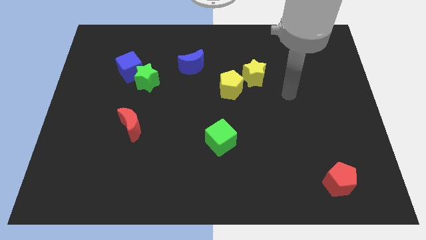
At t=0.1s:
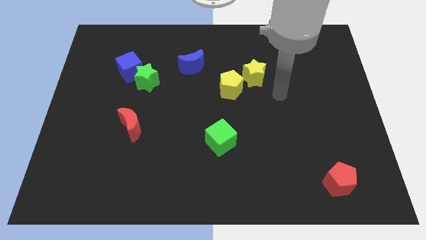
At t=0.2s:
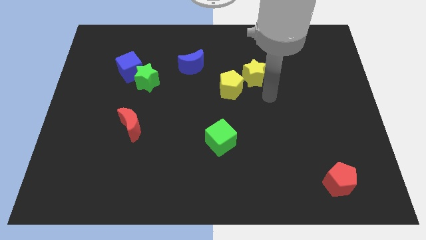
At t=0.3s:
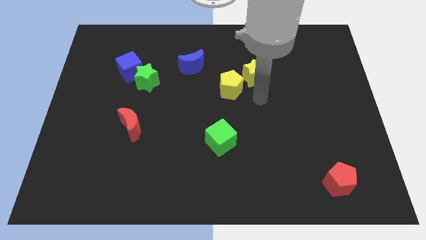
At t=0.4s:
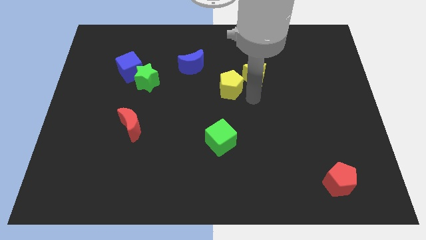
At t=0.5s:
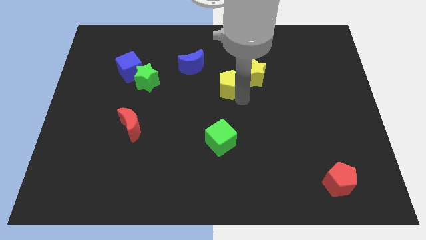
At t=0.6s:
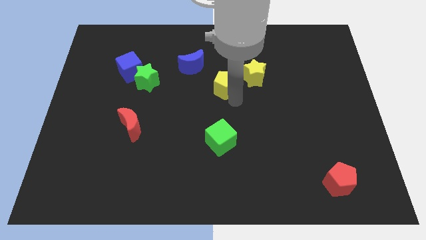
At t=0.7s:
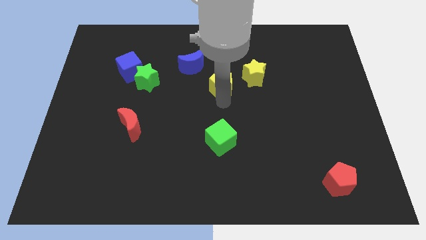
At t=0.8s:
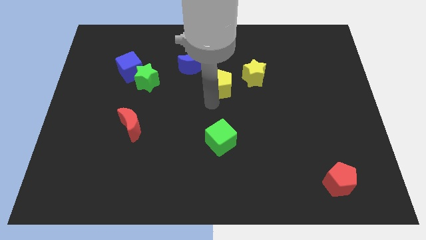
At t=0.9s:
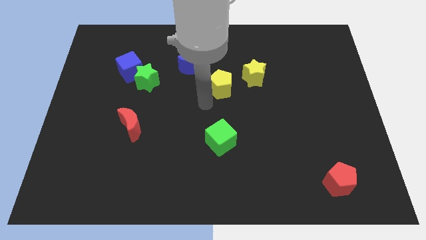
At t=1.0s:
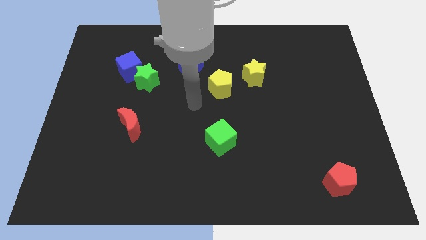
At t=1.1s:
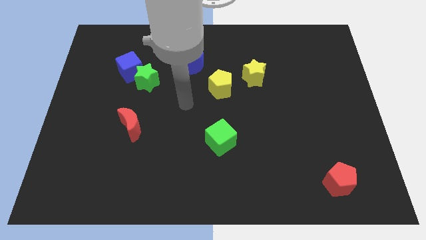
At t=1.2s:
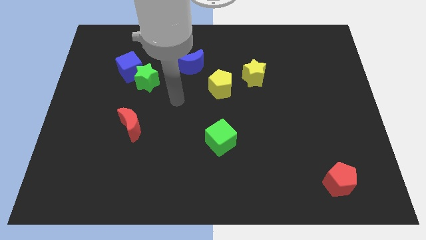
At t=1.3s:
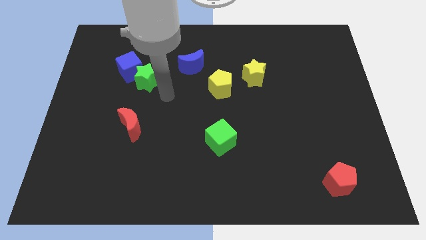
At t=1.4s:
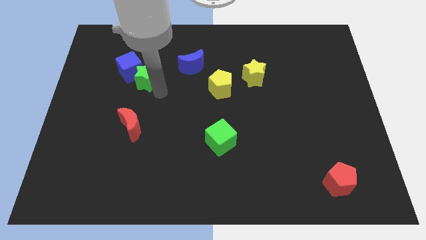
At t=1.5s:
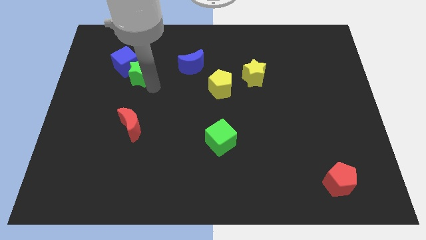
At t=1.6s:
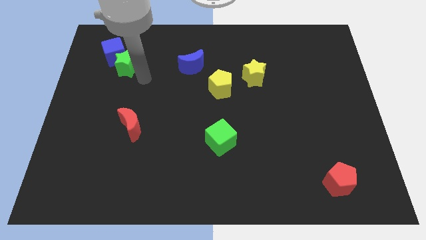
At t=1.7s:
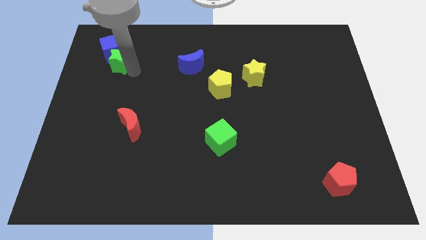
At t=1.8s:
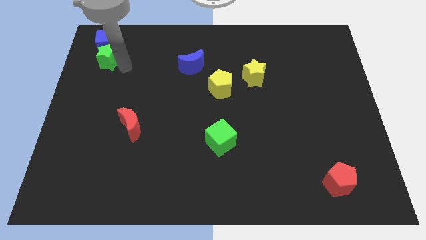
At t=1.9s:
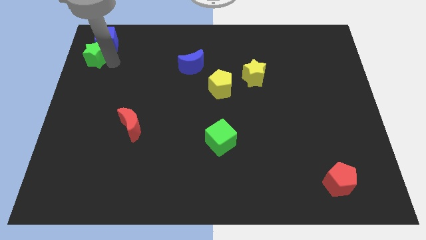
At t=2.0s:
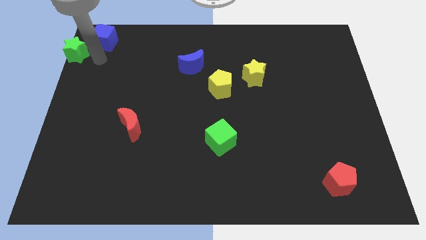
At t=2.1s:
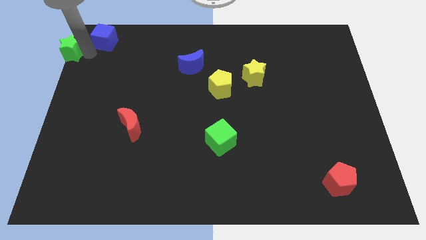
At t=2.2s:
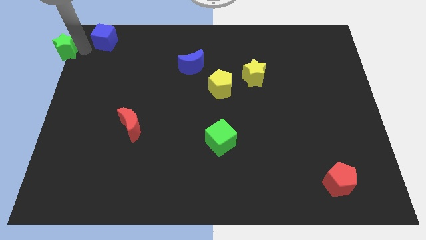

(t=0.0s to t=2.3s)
pull the blue cube apart from the green star

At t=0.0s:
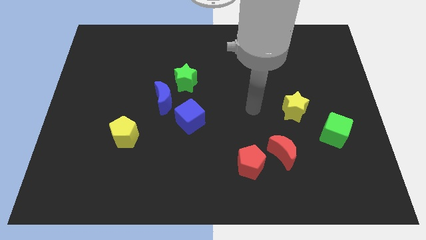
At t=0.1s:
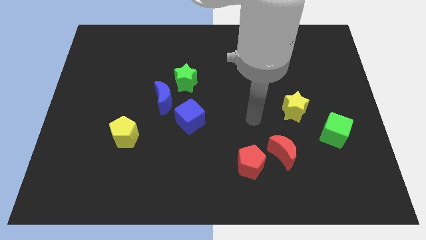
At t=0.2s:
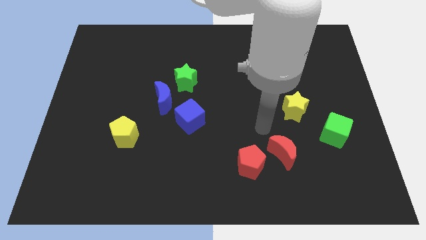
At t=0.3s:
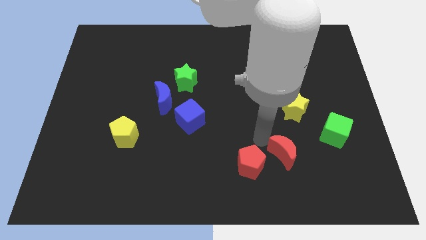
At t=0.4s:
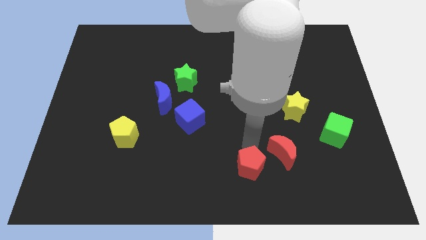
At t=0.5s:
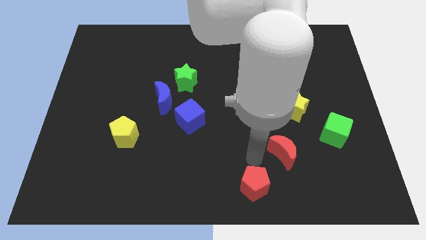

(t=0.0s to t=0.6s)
move the red moon away from the red pentagon

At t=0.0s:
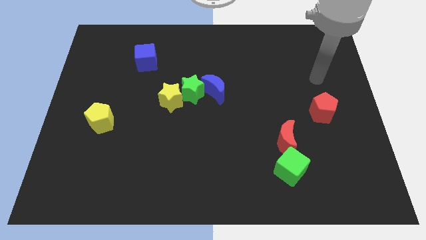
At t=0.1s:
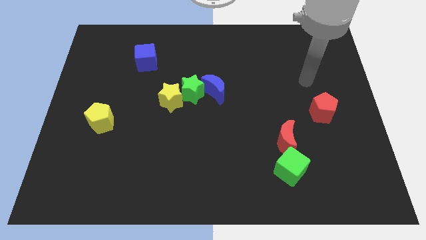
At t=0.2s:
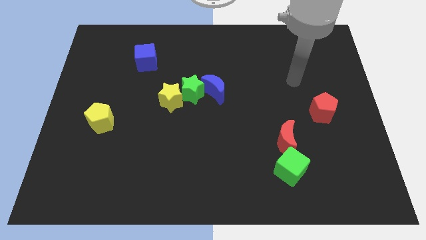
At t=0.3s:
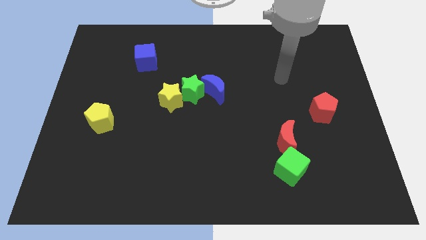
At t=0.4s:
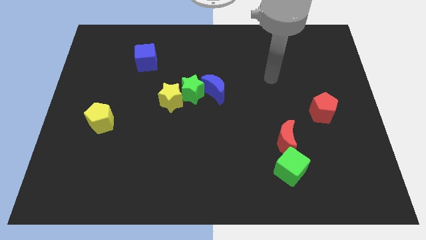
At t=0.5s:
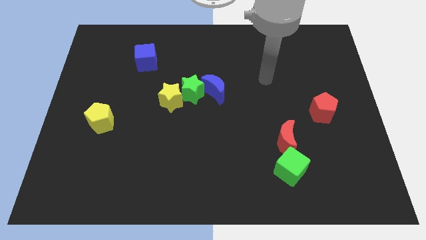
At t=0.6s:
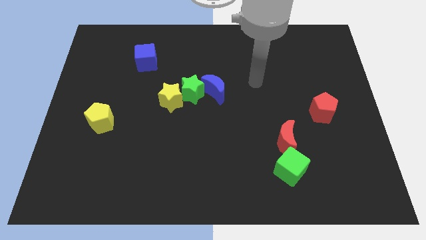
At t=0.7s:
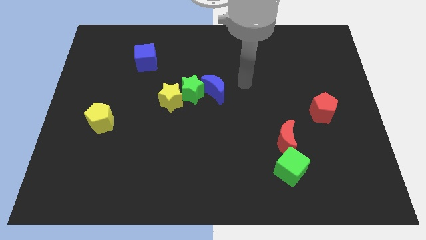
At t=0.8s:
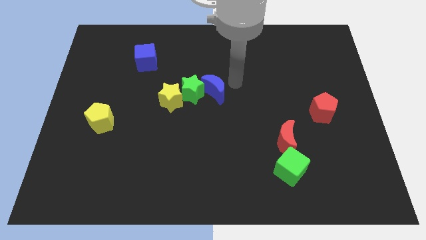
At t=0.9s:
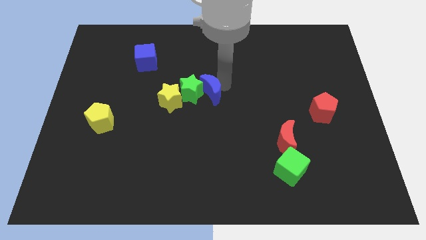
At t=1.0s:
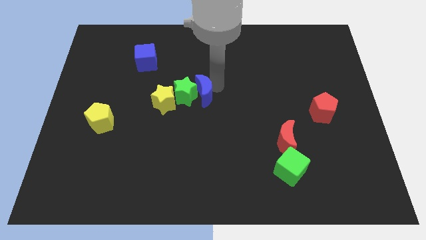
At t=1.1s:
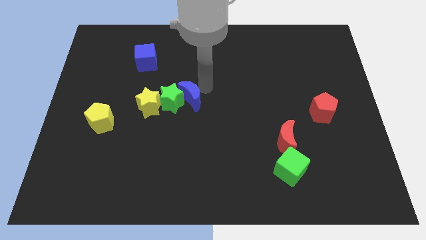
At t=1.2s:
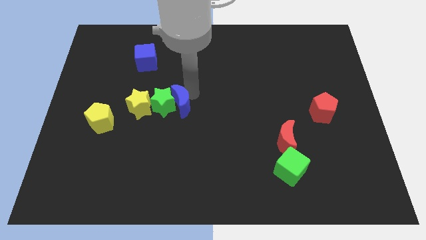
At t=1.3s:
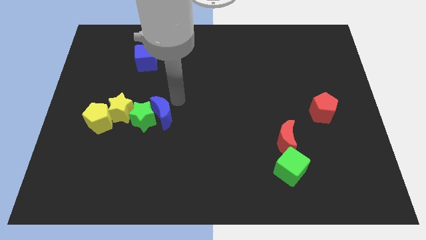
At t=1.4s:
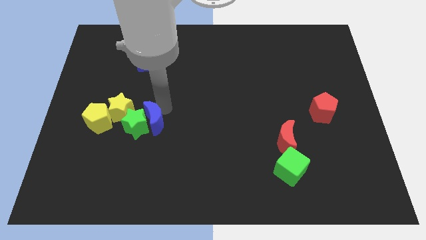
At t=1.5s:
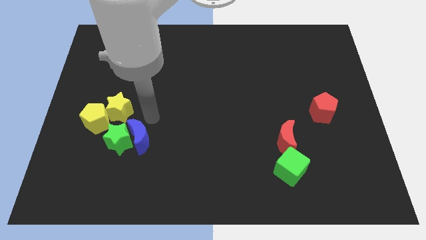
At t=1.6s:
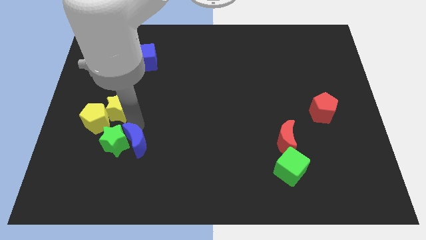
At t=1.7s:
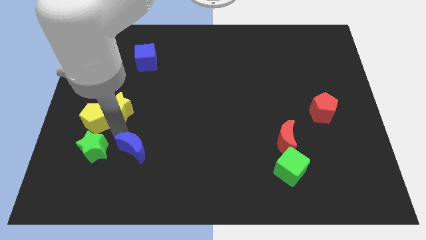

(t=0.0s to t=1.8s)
separate the yellow star from the green star

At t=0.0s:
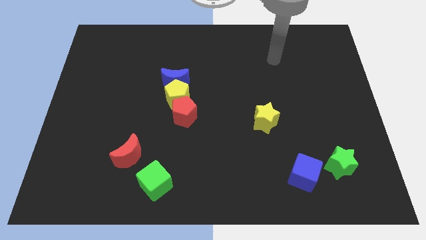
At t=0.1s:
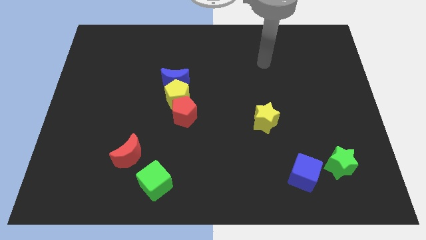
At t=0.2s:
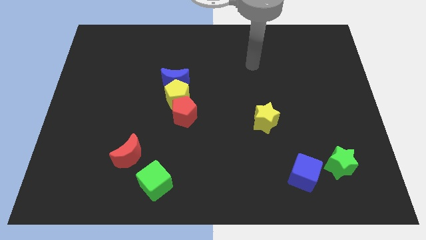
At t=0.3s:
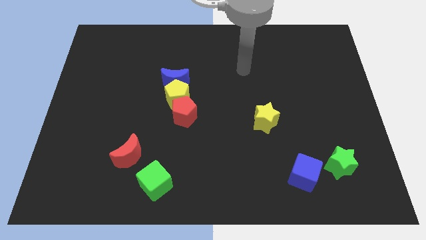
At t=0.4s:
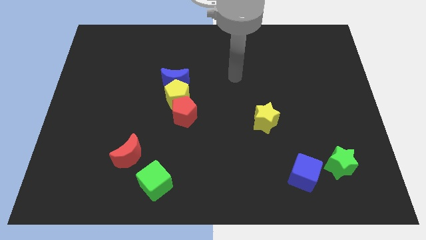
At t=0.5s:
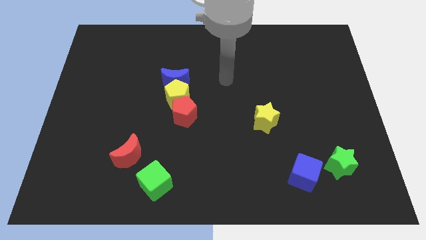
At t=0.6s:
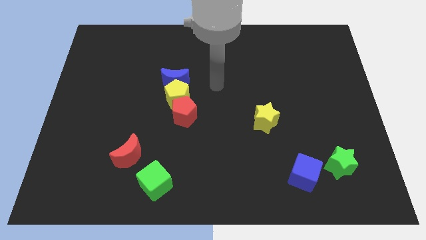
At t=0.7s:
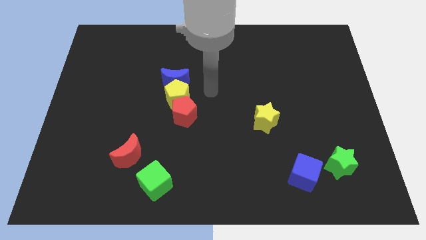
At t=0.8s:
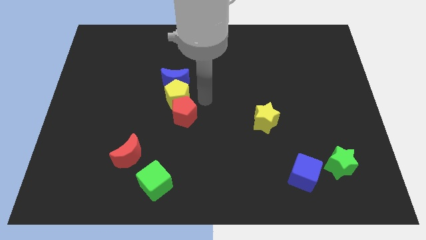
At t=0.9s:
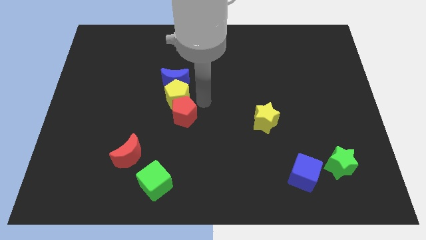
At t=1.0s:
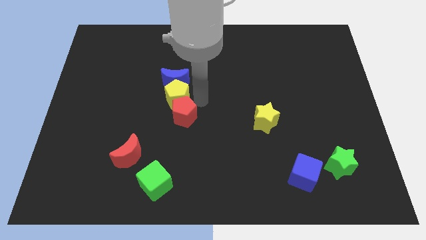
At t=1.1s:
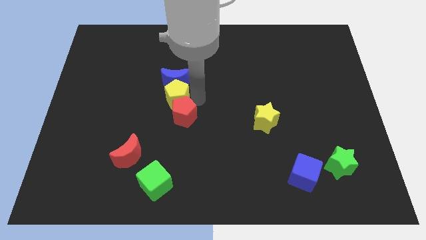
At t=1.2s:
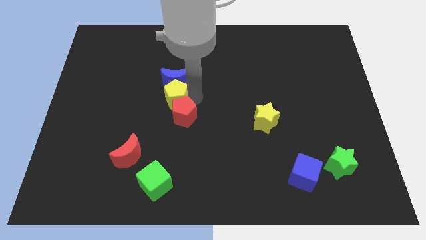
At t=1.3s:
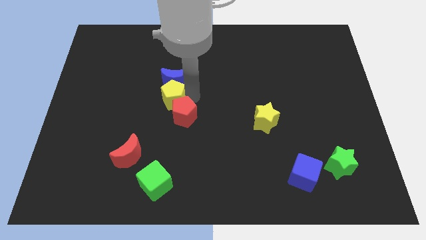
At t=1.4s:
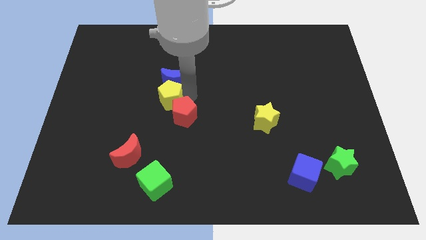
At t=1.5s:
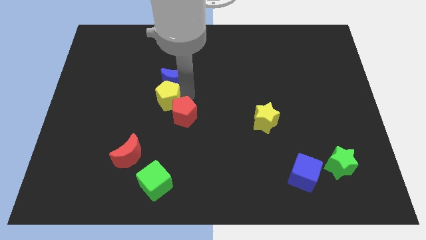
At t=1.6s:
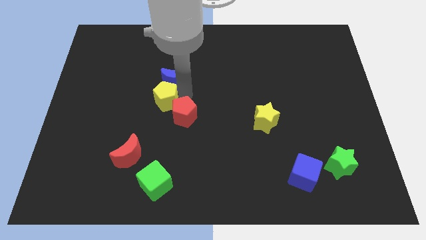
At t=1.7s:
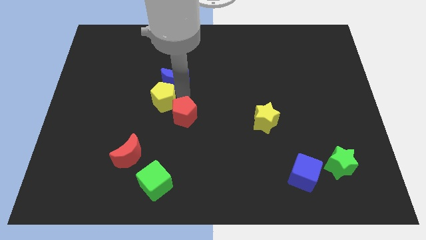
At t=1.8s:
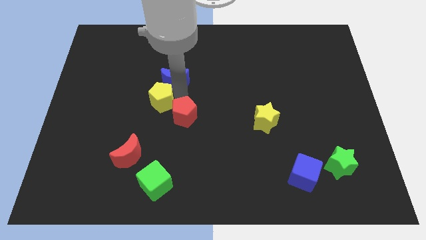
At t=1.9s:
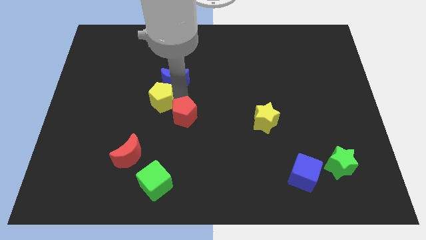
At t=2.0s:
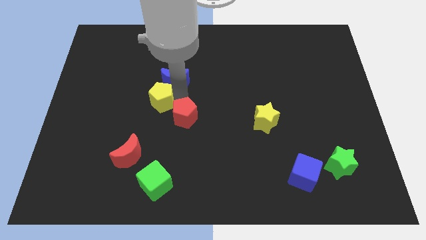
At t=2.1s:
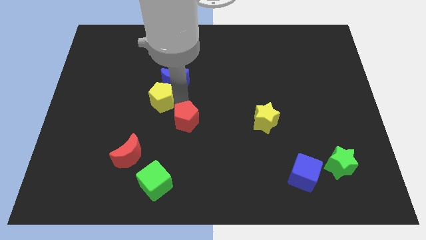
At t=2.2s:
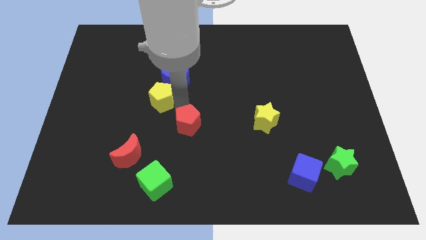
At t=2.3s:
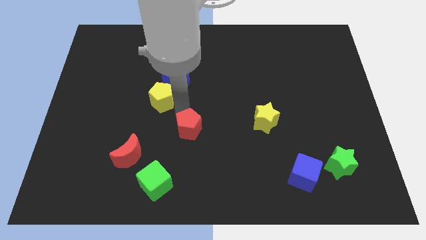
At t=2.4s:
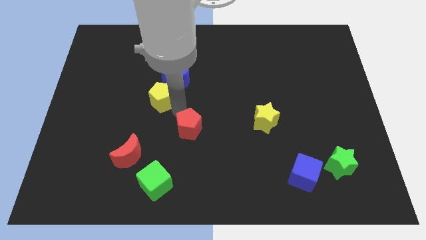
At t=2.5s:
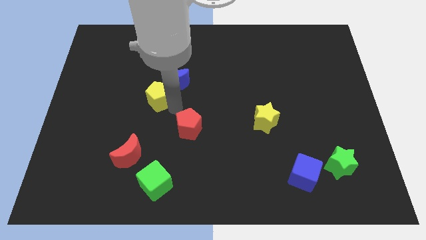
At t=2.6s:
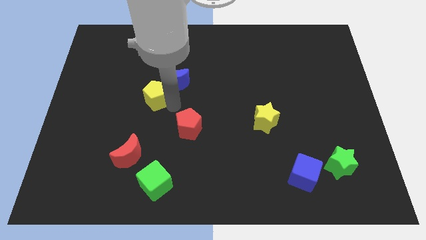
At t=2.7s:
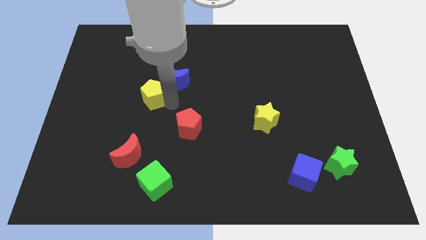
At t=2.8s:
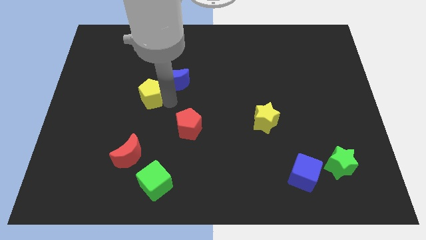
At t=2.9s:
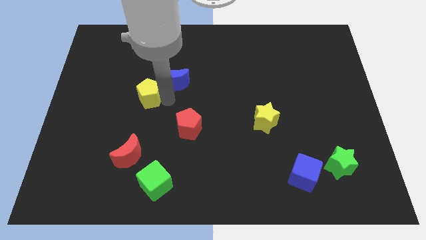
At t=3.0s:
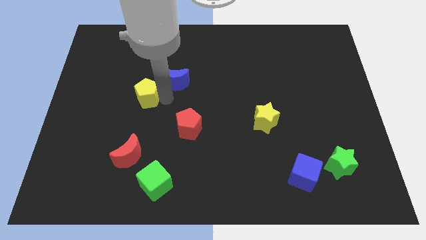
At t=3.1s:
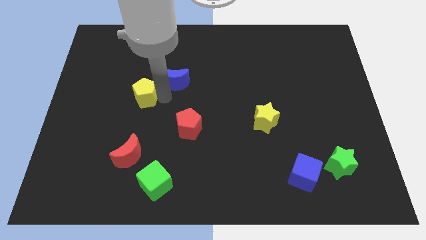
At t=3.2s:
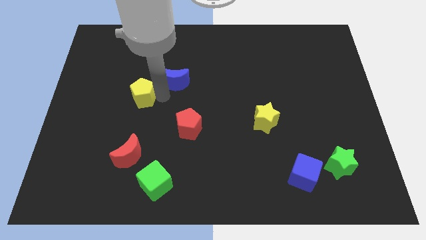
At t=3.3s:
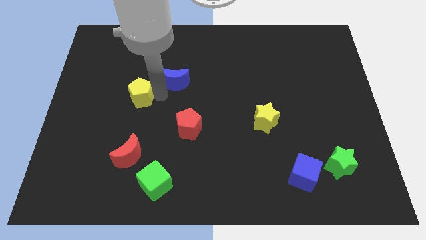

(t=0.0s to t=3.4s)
separate the yellow pentagon from the blue moon and red pentagon

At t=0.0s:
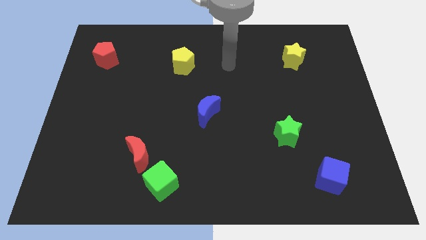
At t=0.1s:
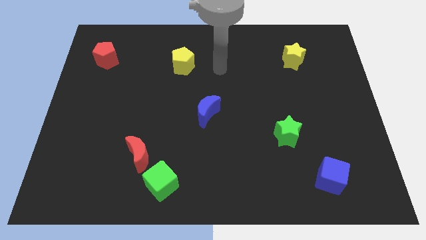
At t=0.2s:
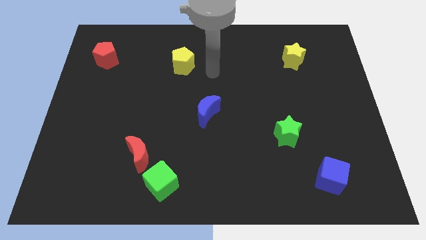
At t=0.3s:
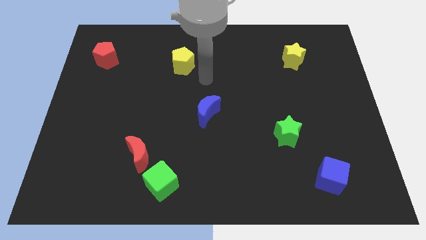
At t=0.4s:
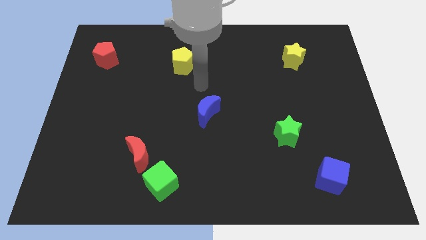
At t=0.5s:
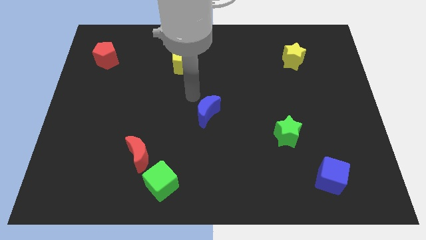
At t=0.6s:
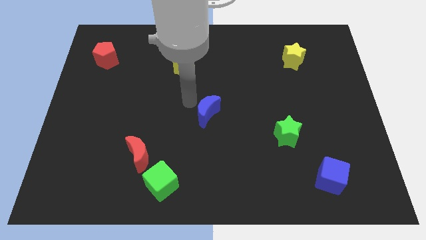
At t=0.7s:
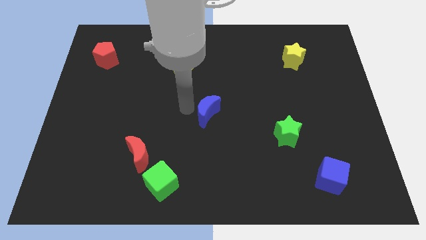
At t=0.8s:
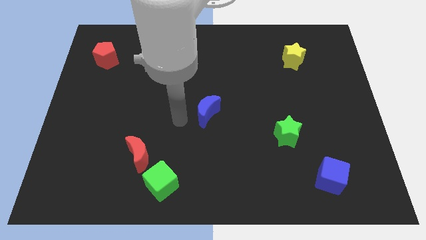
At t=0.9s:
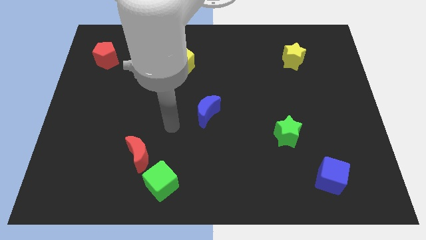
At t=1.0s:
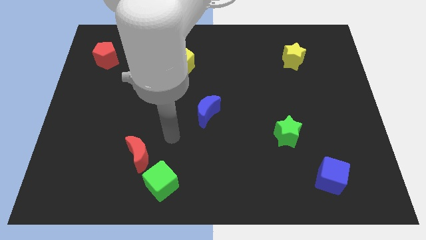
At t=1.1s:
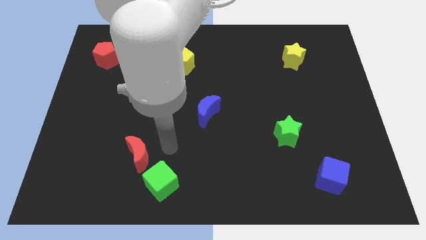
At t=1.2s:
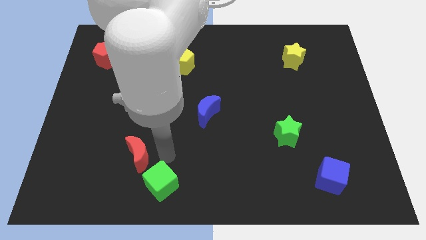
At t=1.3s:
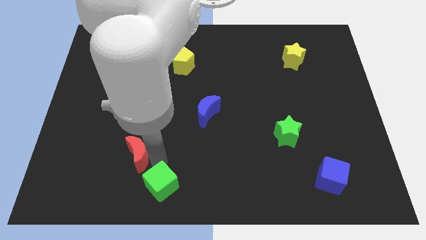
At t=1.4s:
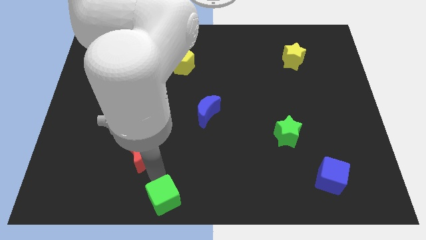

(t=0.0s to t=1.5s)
separate the red moon from the green cube
